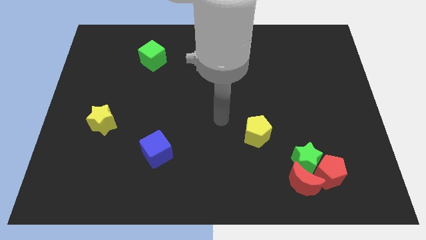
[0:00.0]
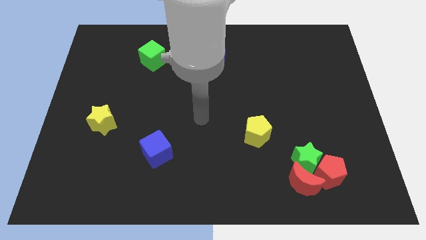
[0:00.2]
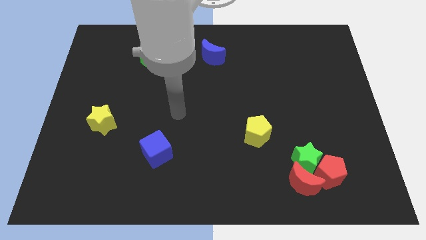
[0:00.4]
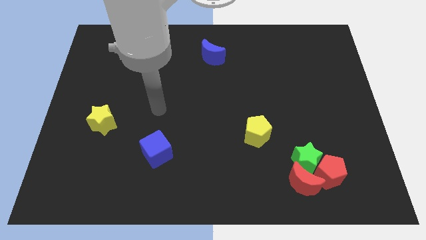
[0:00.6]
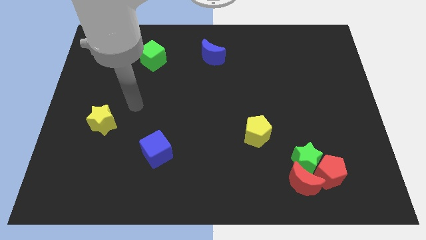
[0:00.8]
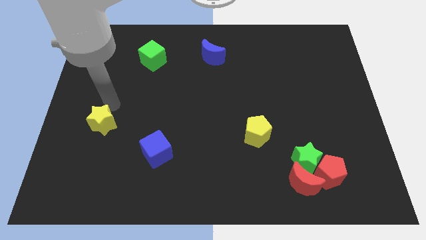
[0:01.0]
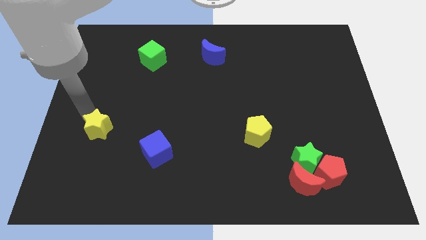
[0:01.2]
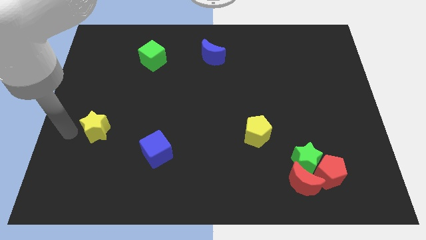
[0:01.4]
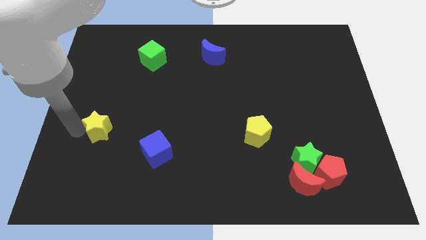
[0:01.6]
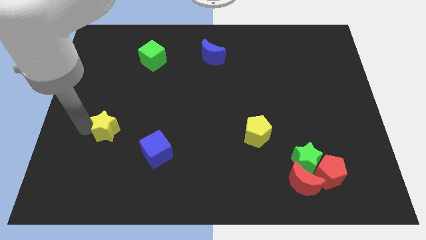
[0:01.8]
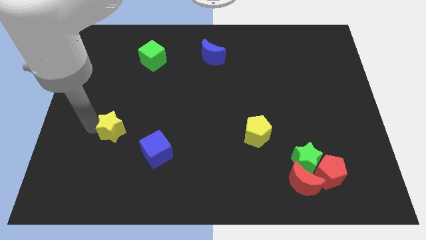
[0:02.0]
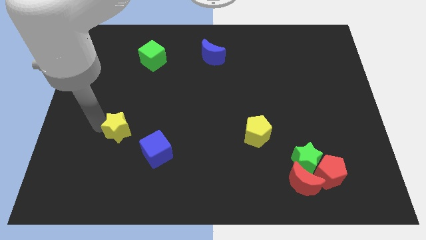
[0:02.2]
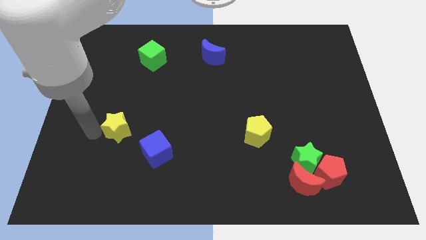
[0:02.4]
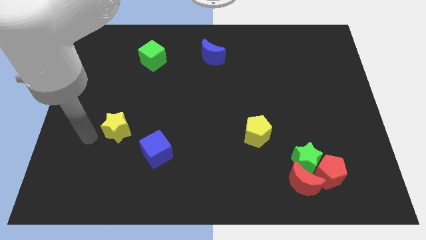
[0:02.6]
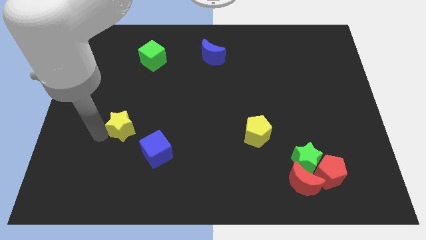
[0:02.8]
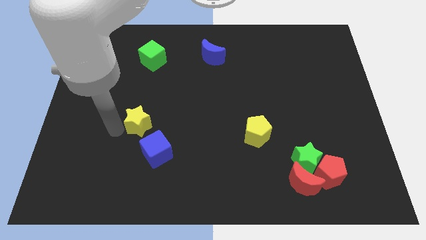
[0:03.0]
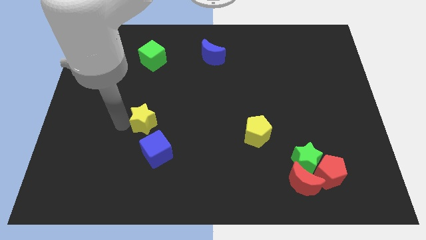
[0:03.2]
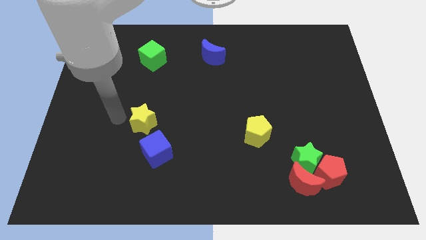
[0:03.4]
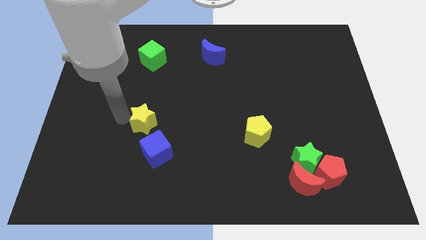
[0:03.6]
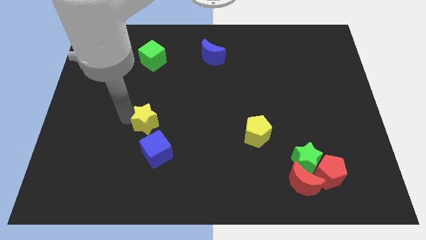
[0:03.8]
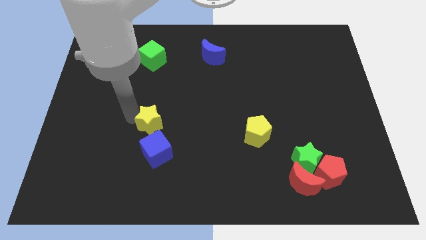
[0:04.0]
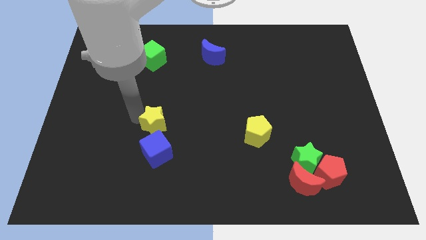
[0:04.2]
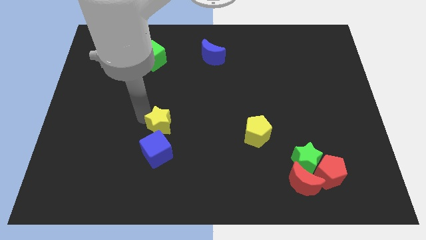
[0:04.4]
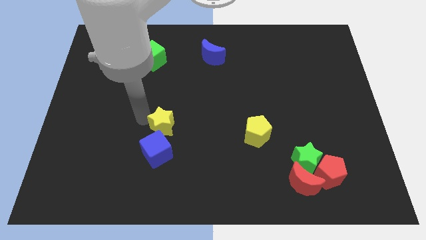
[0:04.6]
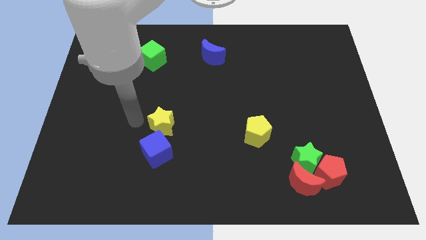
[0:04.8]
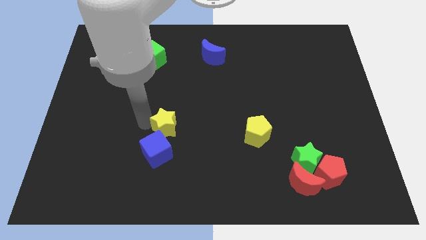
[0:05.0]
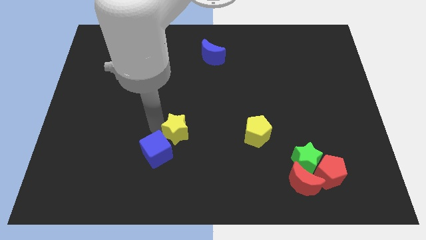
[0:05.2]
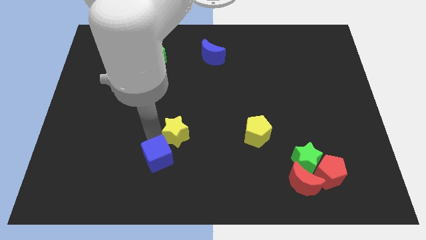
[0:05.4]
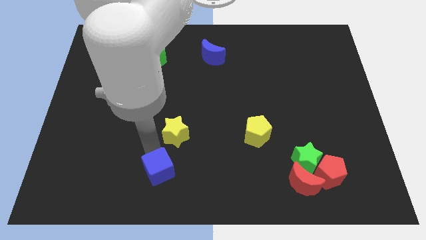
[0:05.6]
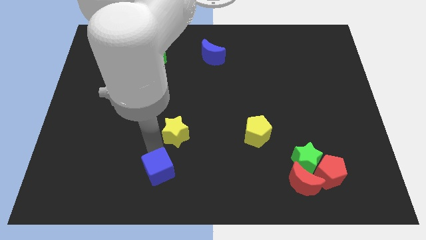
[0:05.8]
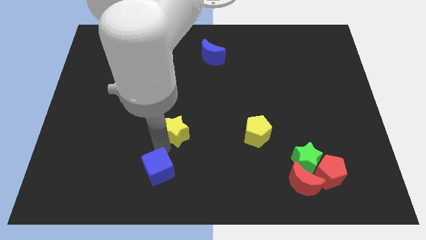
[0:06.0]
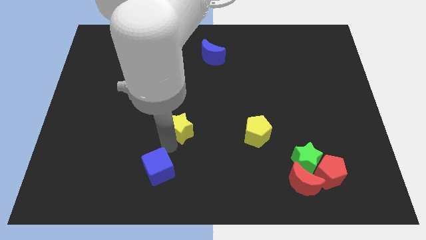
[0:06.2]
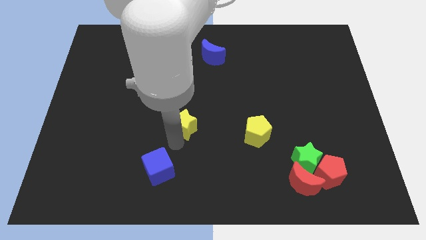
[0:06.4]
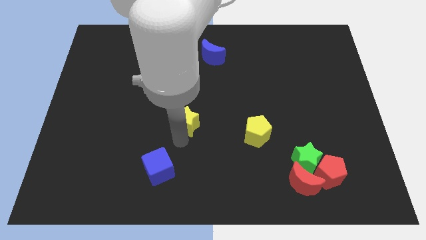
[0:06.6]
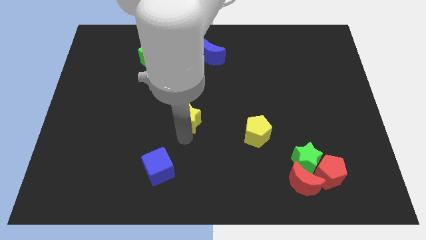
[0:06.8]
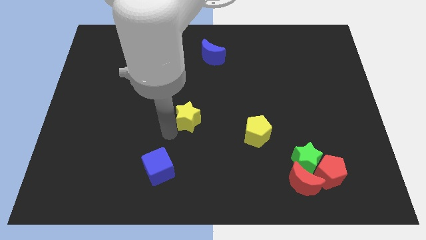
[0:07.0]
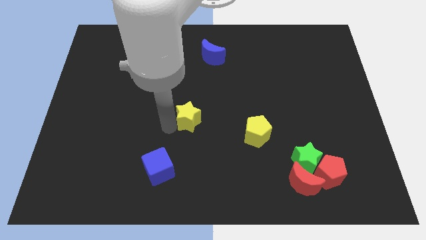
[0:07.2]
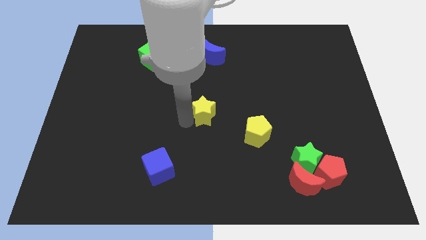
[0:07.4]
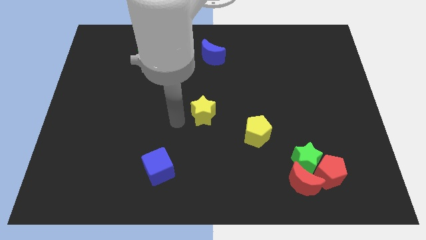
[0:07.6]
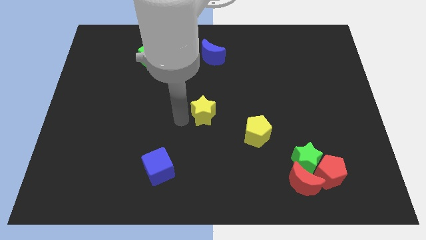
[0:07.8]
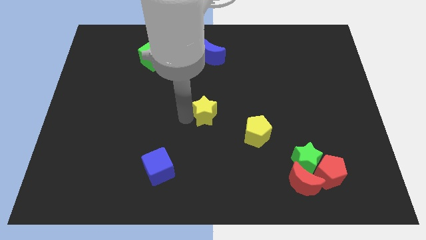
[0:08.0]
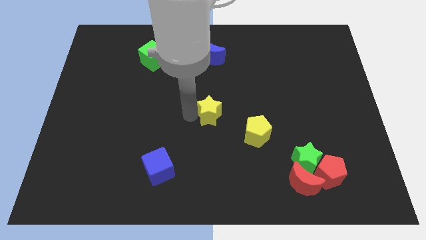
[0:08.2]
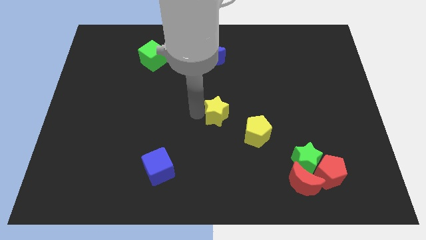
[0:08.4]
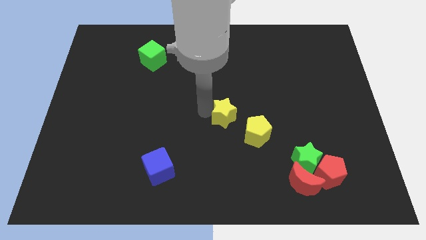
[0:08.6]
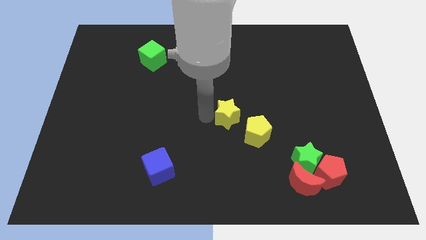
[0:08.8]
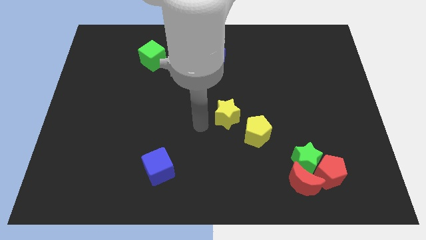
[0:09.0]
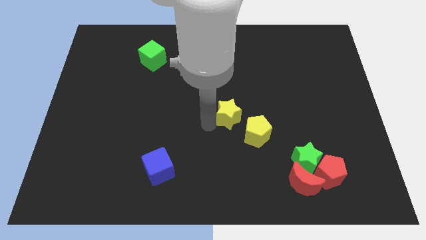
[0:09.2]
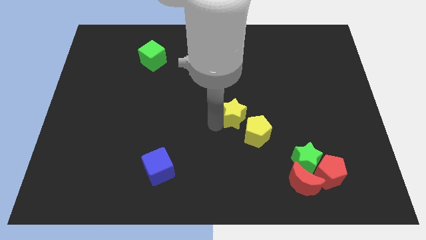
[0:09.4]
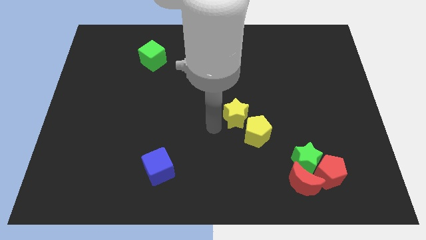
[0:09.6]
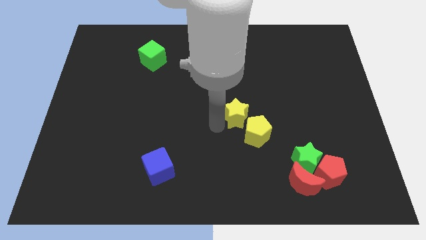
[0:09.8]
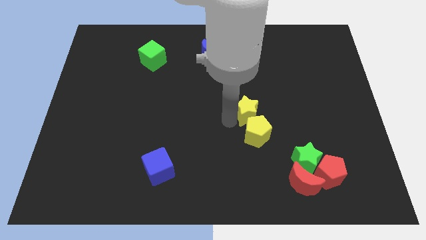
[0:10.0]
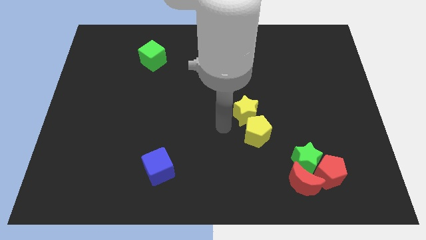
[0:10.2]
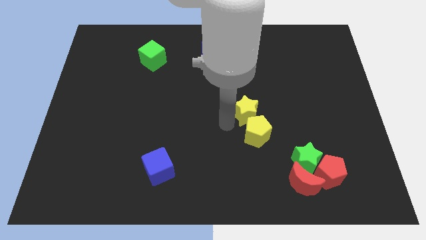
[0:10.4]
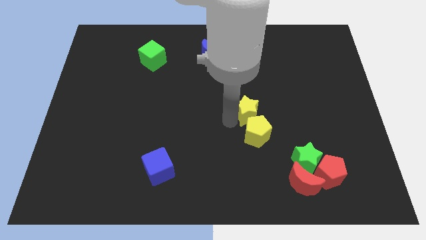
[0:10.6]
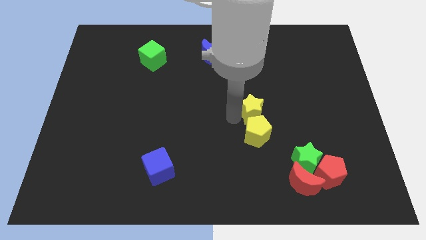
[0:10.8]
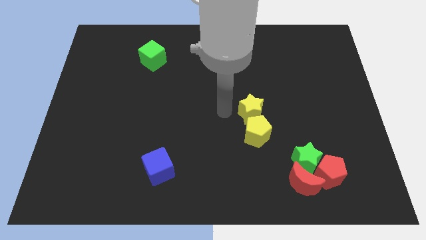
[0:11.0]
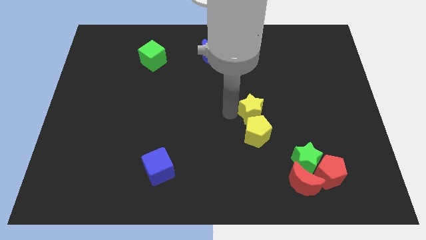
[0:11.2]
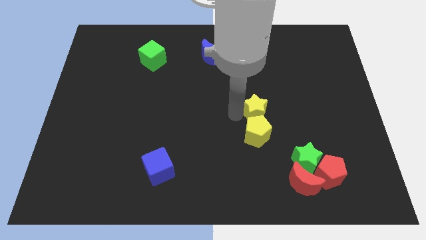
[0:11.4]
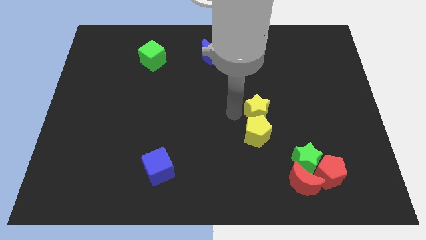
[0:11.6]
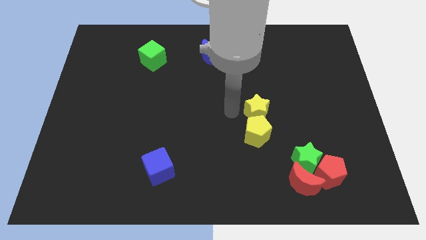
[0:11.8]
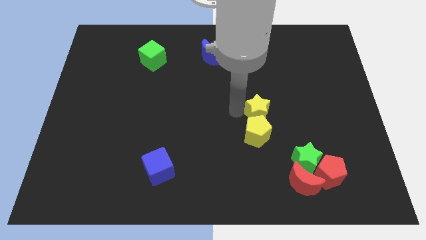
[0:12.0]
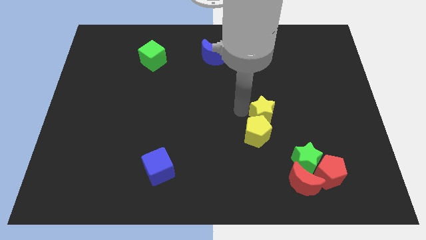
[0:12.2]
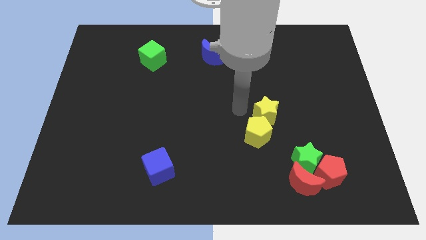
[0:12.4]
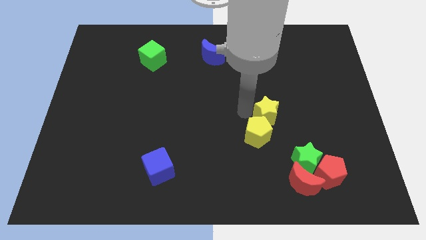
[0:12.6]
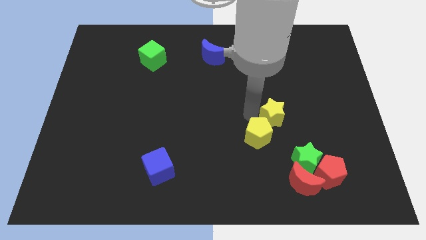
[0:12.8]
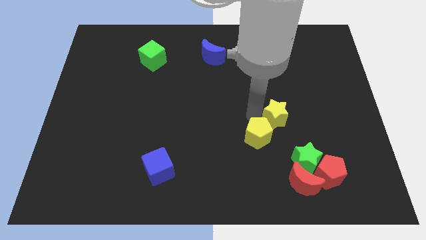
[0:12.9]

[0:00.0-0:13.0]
move the yellow star above the green star

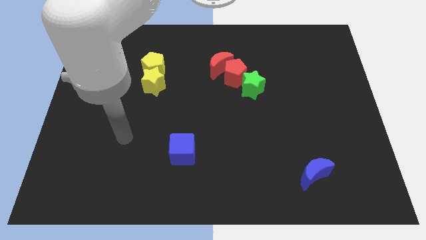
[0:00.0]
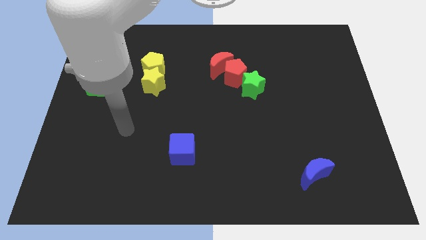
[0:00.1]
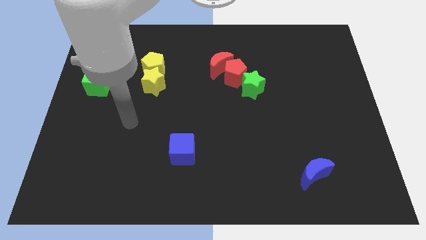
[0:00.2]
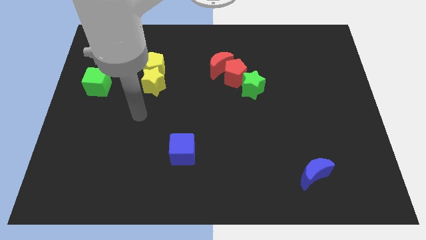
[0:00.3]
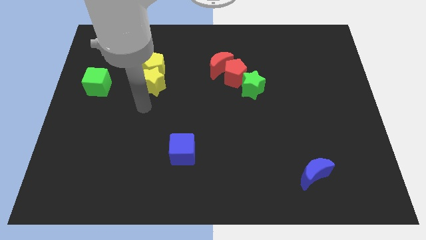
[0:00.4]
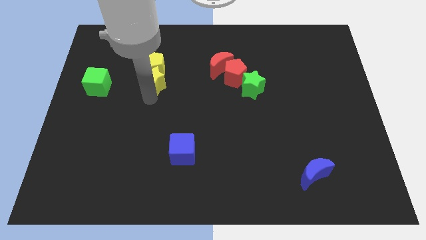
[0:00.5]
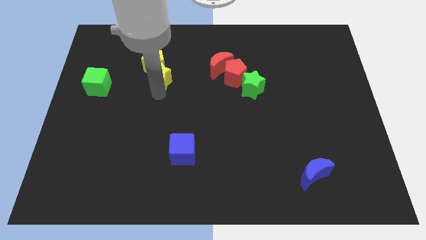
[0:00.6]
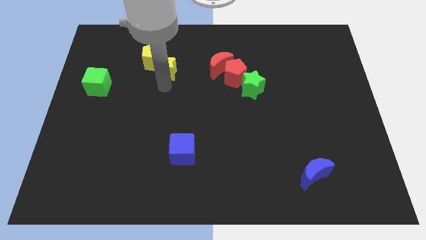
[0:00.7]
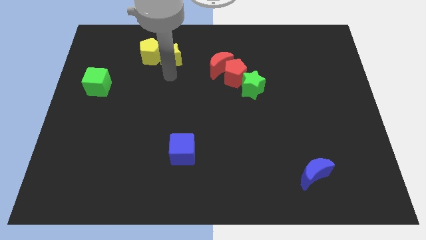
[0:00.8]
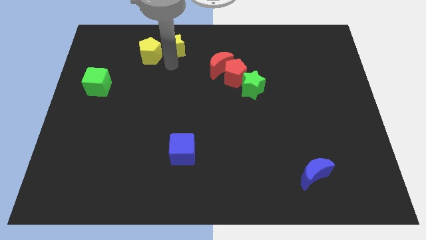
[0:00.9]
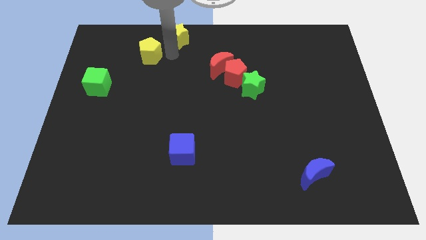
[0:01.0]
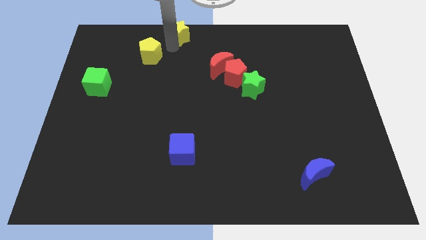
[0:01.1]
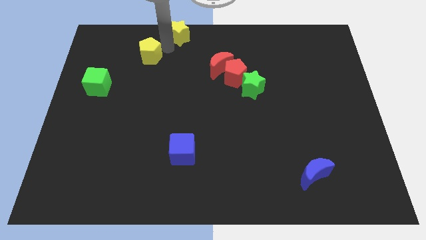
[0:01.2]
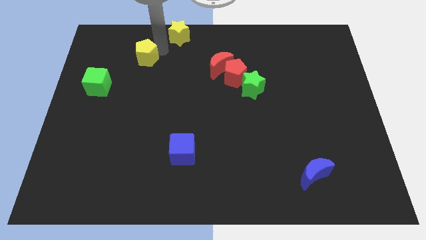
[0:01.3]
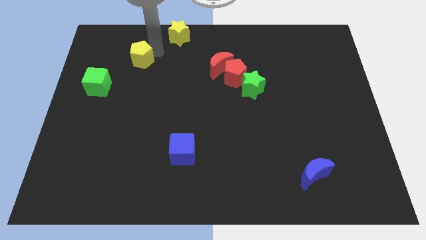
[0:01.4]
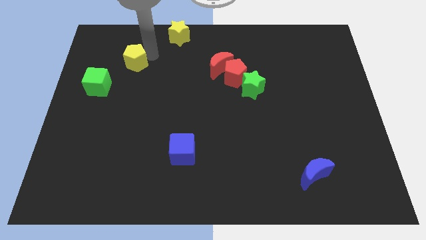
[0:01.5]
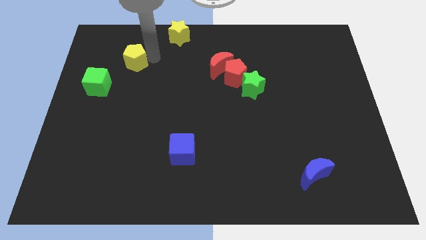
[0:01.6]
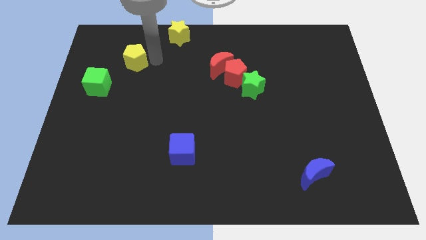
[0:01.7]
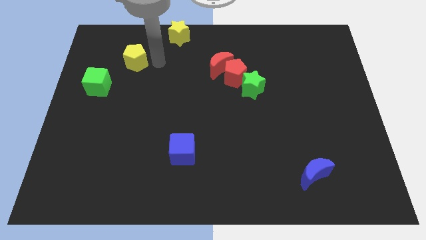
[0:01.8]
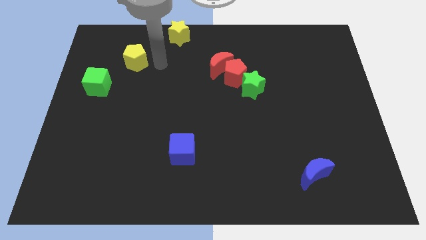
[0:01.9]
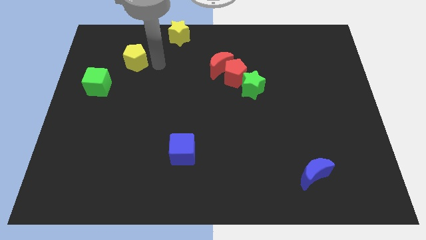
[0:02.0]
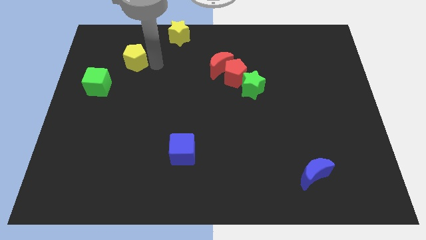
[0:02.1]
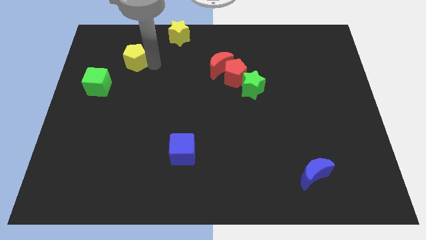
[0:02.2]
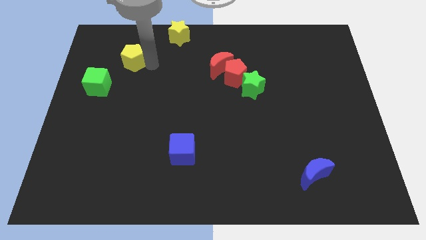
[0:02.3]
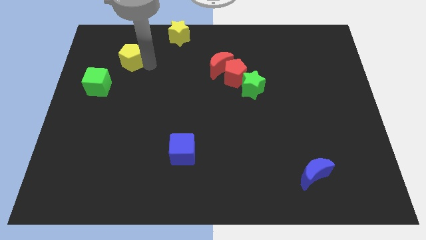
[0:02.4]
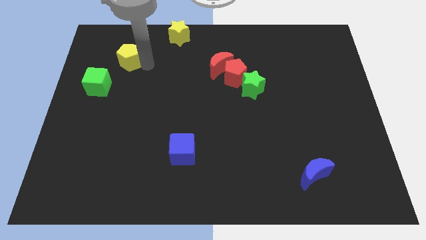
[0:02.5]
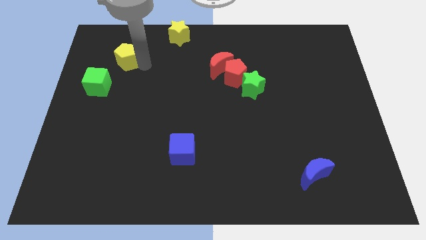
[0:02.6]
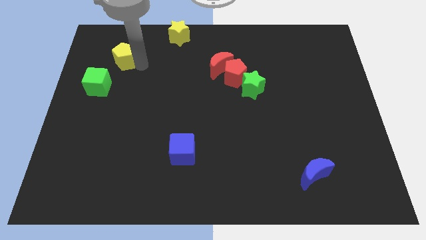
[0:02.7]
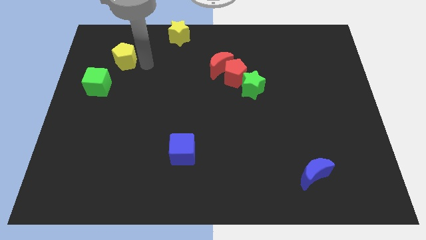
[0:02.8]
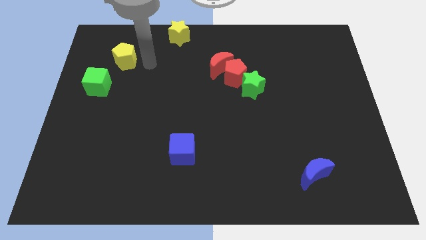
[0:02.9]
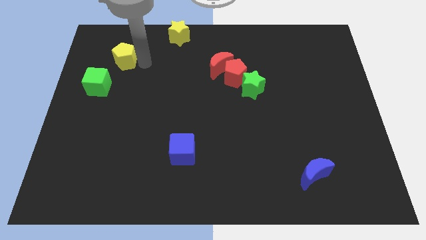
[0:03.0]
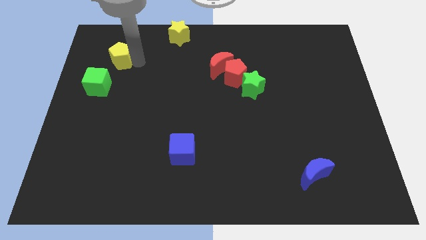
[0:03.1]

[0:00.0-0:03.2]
slide the yellow pentagon to the top side of the green cube
